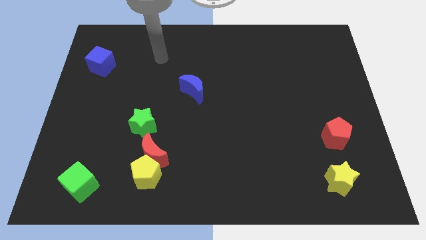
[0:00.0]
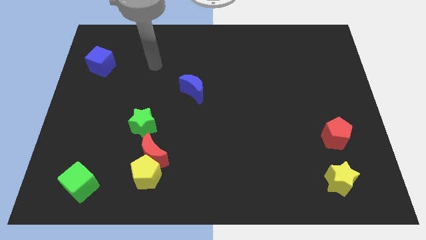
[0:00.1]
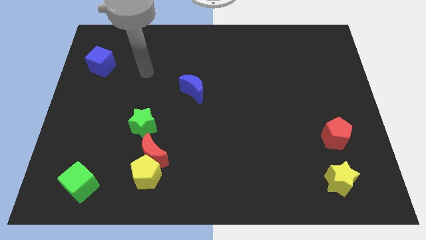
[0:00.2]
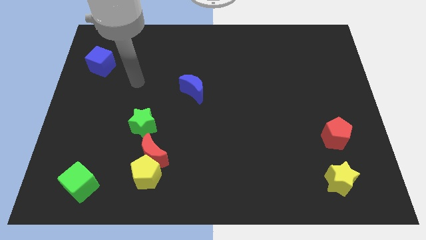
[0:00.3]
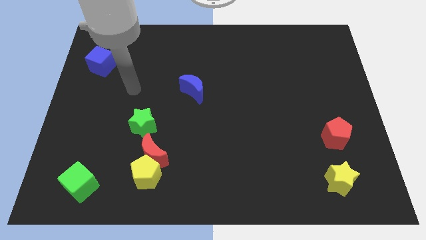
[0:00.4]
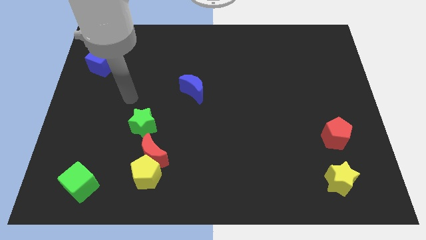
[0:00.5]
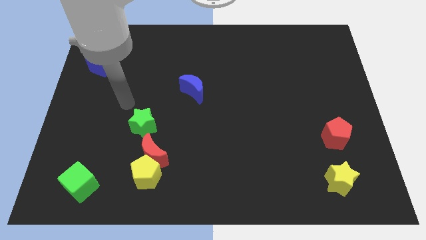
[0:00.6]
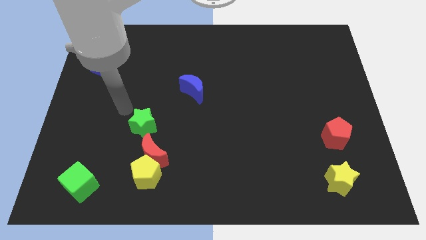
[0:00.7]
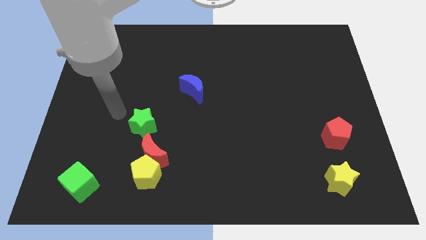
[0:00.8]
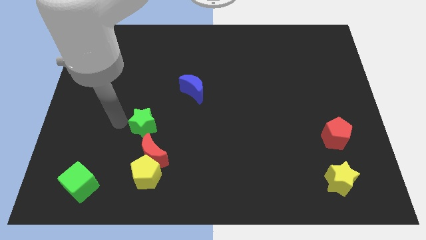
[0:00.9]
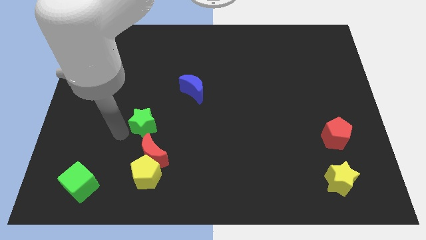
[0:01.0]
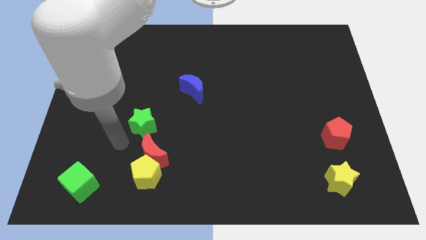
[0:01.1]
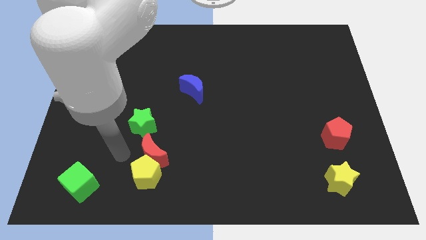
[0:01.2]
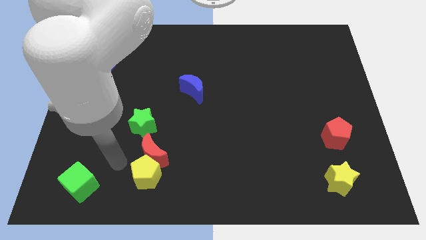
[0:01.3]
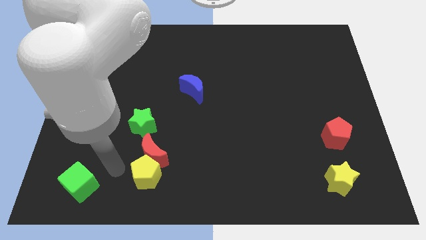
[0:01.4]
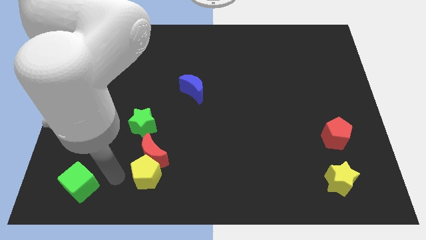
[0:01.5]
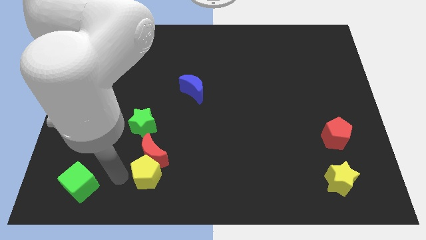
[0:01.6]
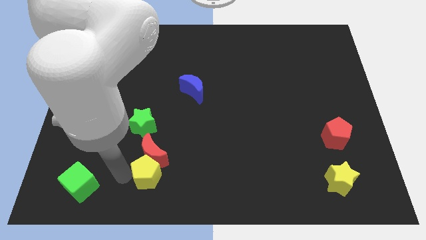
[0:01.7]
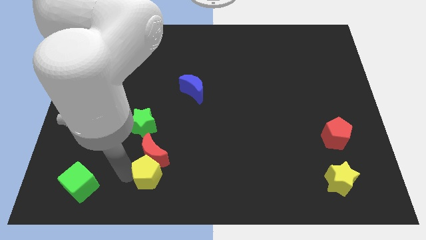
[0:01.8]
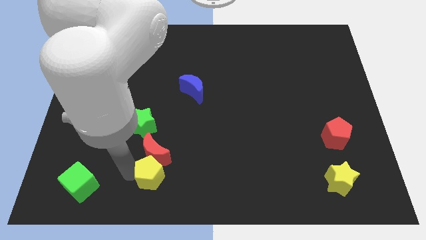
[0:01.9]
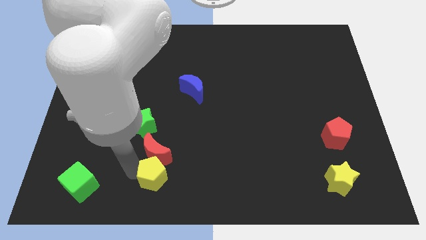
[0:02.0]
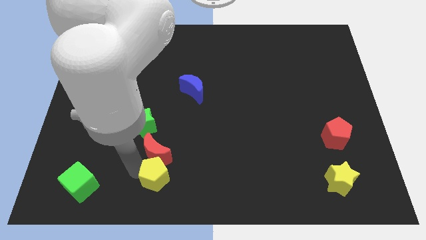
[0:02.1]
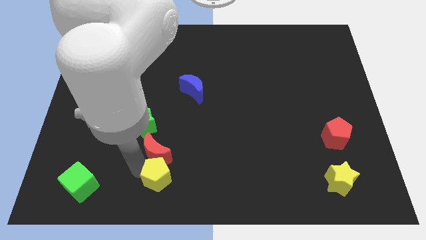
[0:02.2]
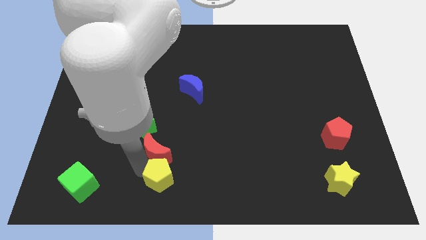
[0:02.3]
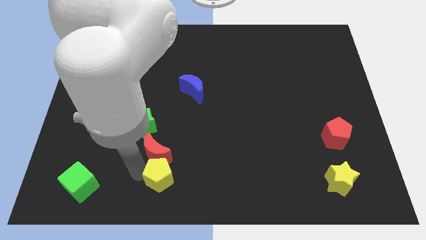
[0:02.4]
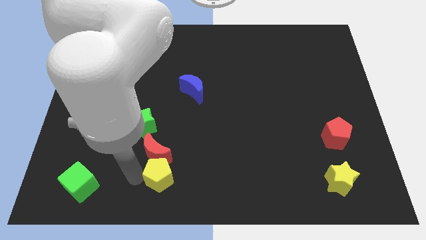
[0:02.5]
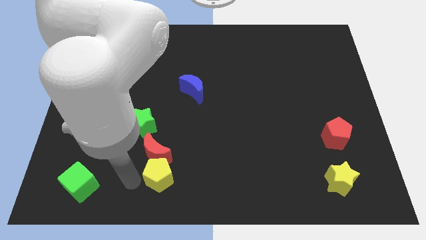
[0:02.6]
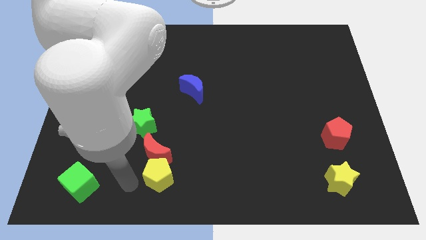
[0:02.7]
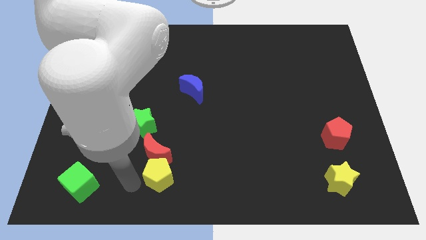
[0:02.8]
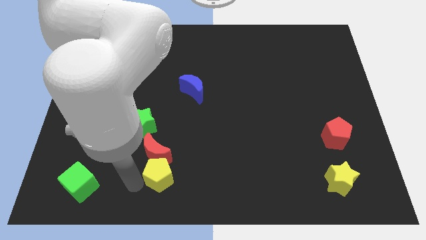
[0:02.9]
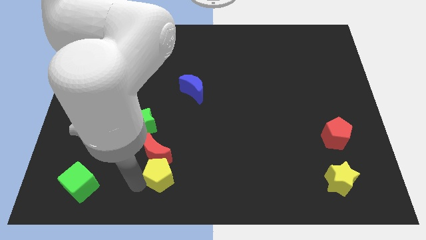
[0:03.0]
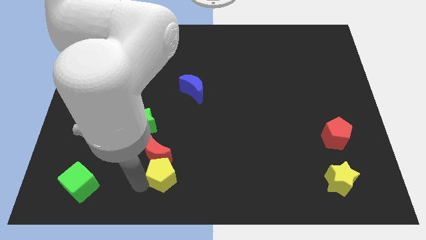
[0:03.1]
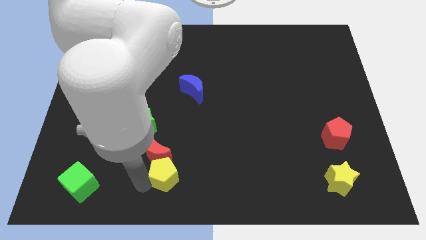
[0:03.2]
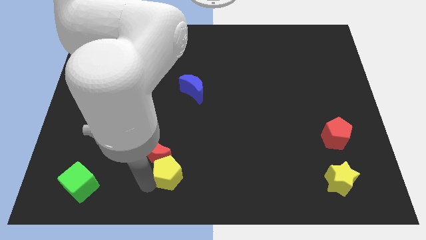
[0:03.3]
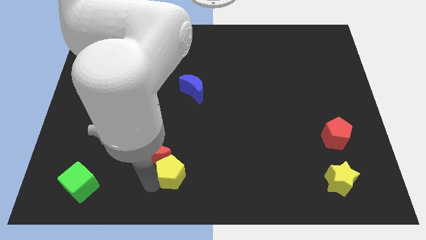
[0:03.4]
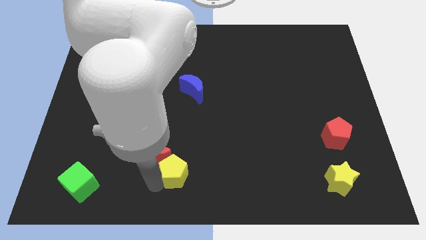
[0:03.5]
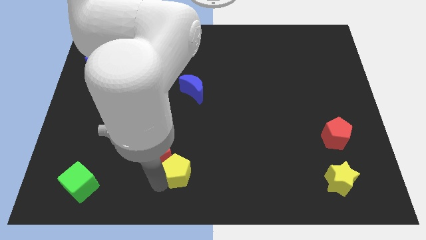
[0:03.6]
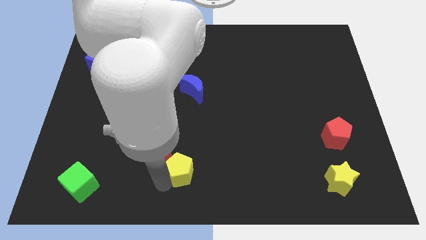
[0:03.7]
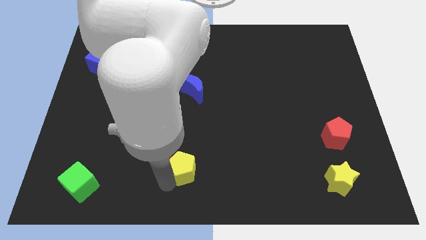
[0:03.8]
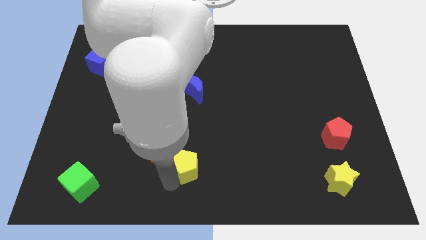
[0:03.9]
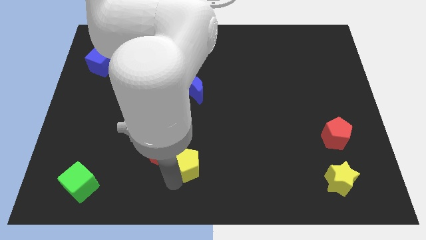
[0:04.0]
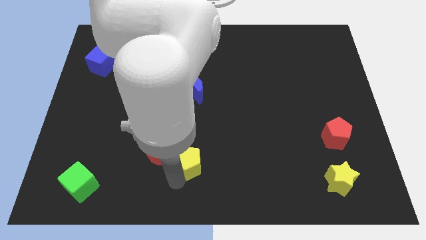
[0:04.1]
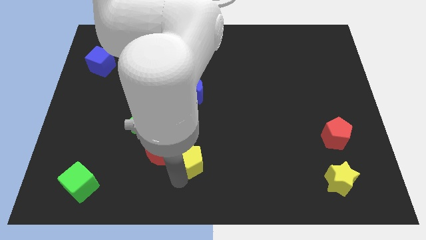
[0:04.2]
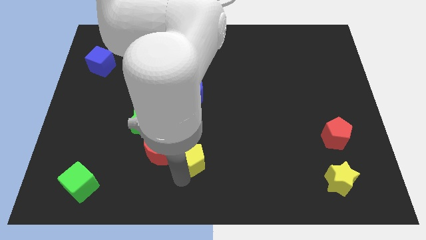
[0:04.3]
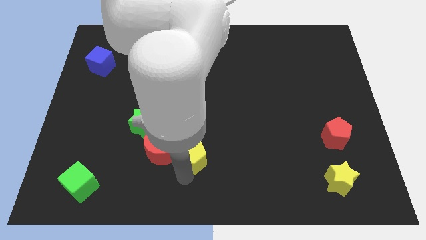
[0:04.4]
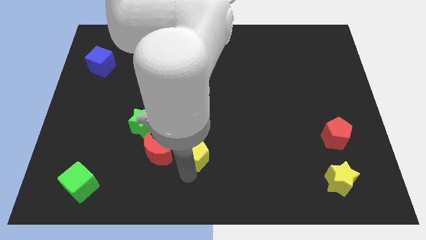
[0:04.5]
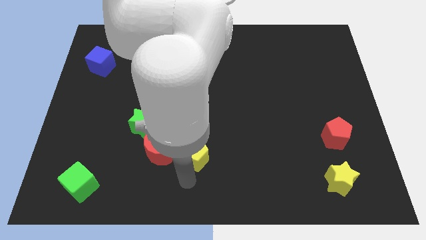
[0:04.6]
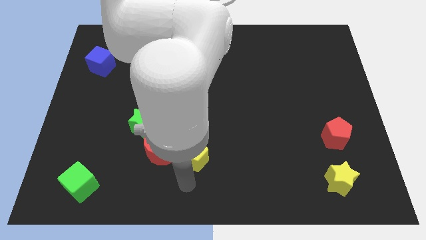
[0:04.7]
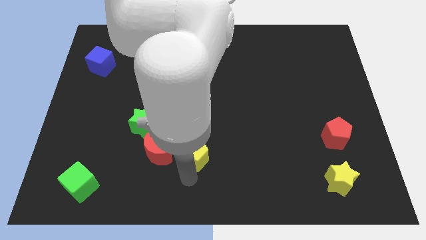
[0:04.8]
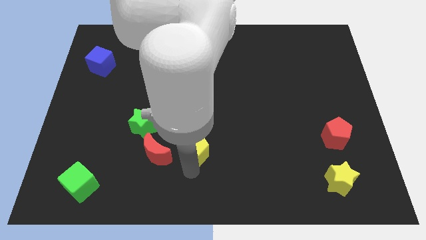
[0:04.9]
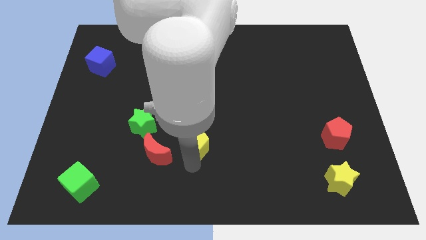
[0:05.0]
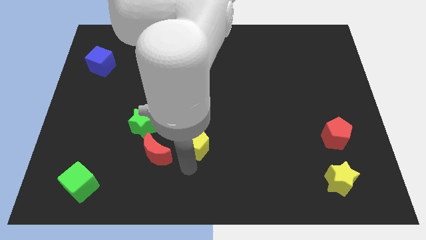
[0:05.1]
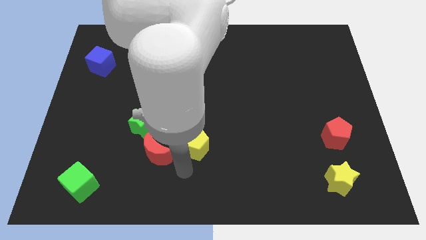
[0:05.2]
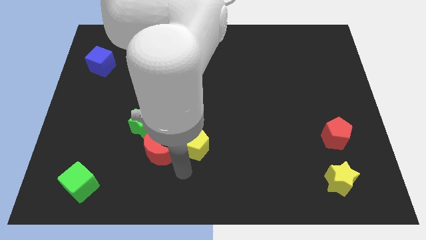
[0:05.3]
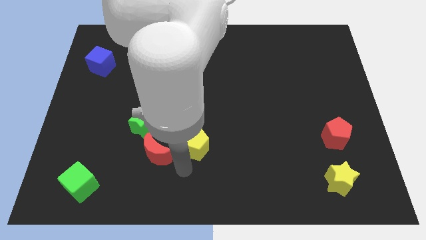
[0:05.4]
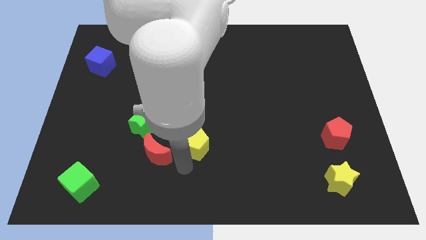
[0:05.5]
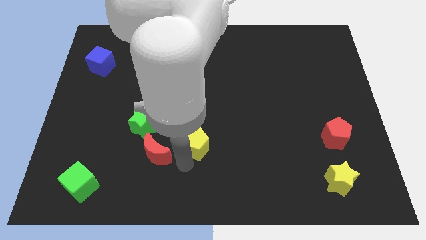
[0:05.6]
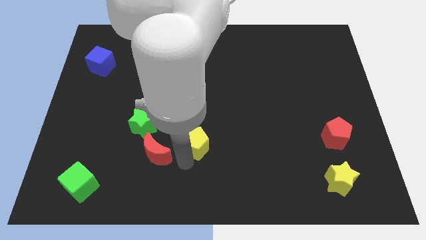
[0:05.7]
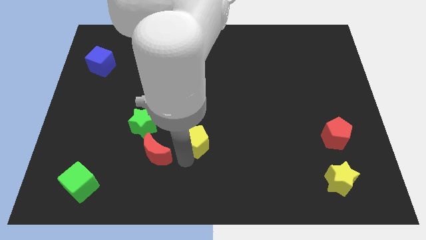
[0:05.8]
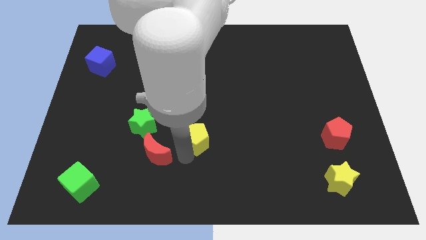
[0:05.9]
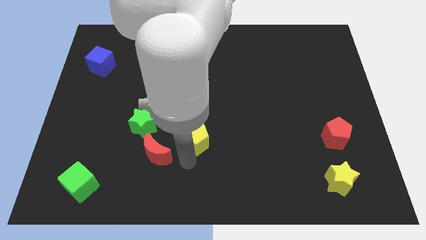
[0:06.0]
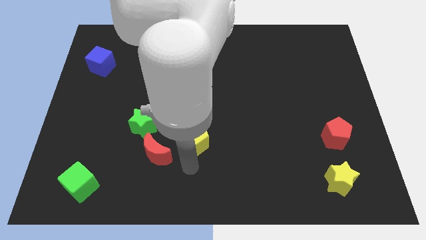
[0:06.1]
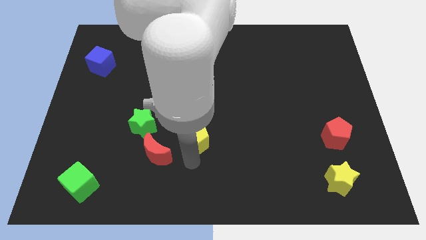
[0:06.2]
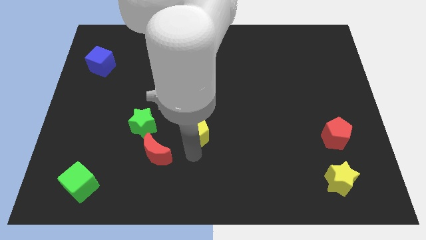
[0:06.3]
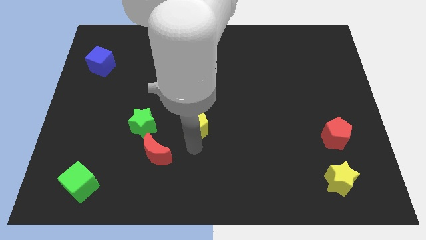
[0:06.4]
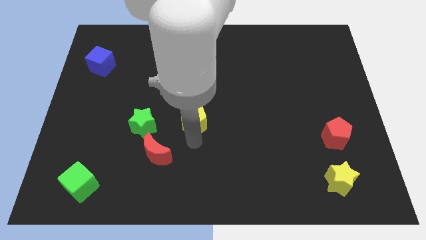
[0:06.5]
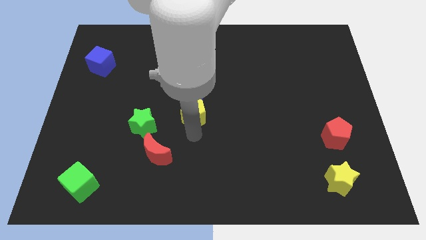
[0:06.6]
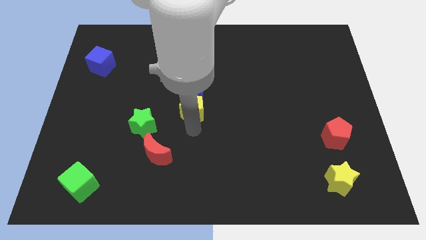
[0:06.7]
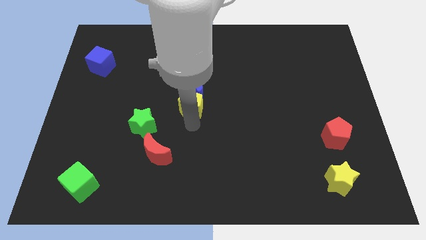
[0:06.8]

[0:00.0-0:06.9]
push the yellow pentagon next to the blue moon

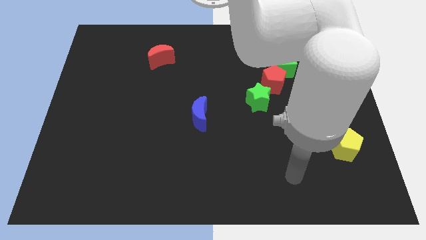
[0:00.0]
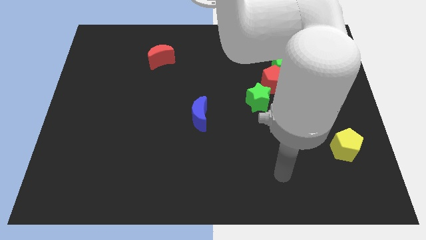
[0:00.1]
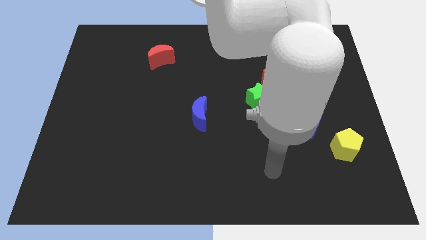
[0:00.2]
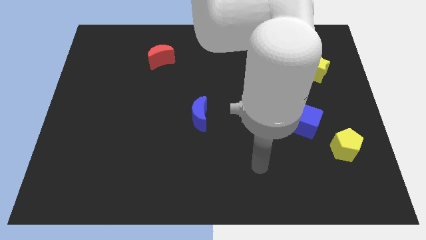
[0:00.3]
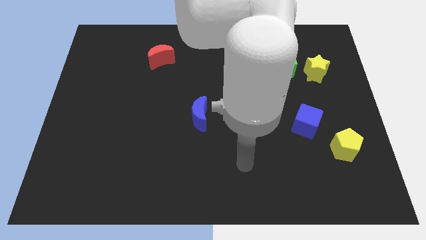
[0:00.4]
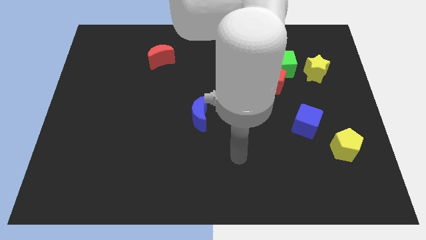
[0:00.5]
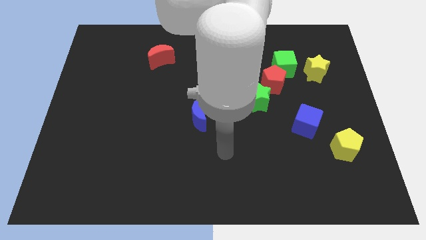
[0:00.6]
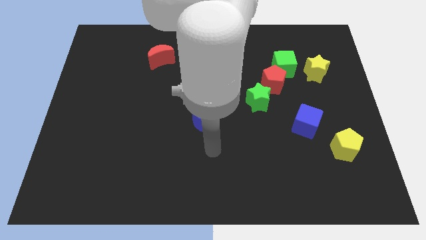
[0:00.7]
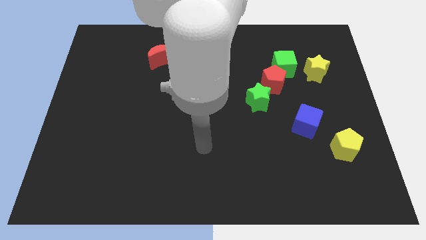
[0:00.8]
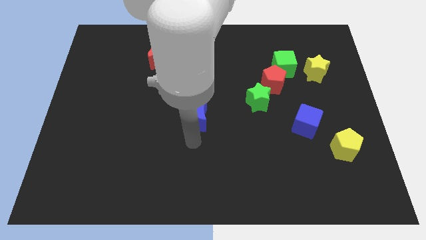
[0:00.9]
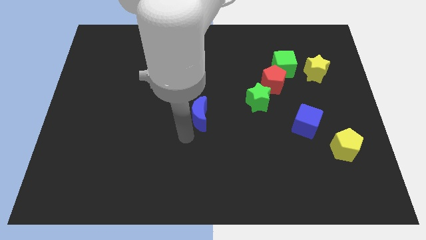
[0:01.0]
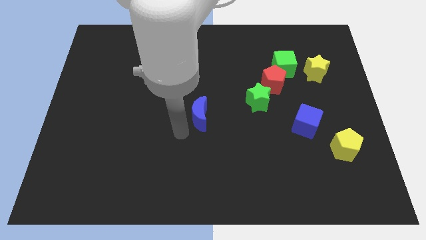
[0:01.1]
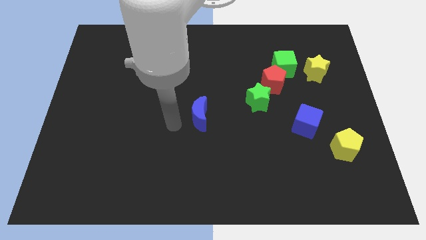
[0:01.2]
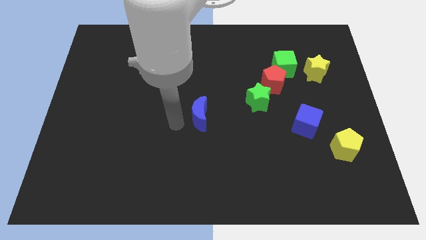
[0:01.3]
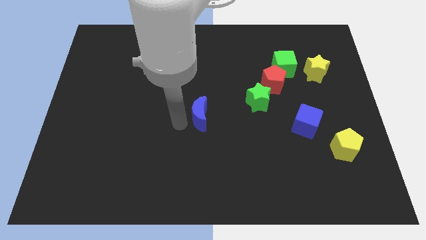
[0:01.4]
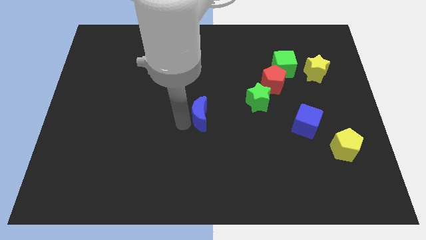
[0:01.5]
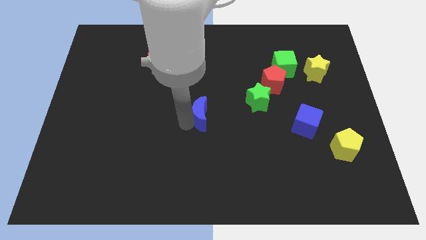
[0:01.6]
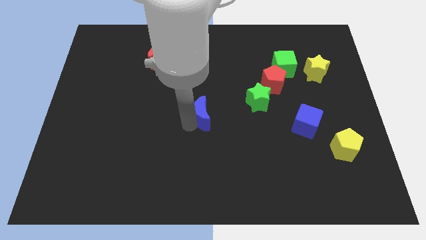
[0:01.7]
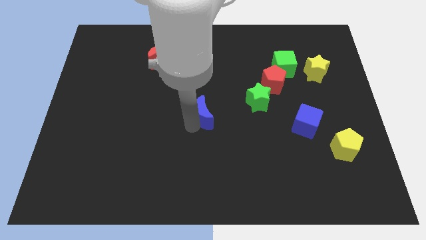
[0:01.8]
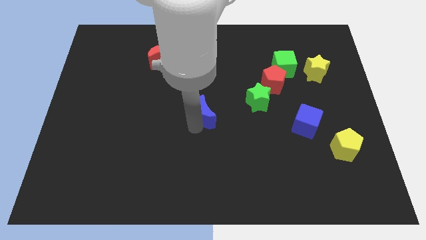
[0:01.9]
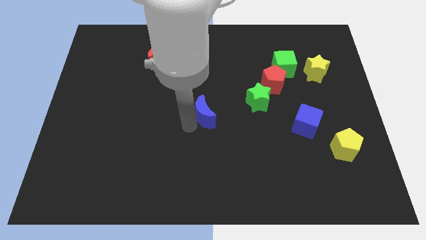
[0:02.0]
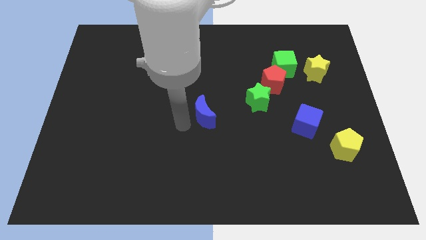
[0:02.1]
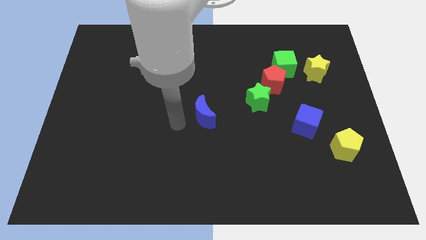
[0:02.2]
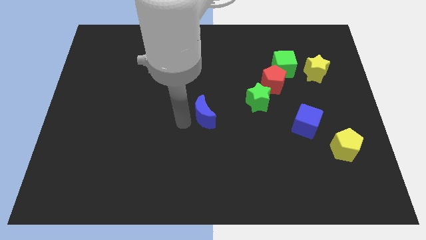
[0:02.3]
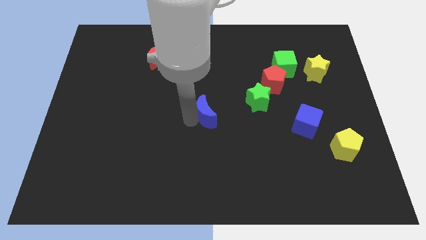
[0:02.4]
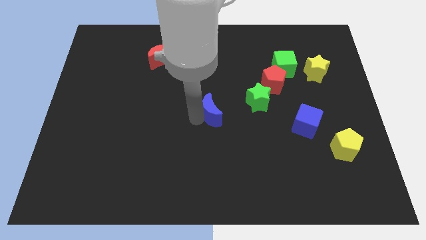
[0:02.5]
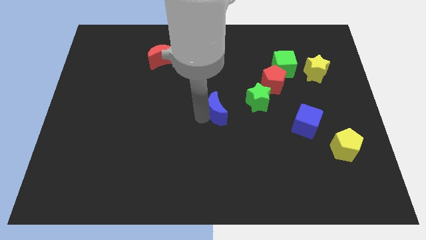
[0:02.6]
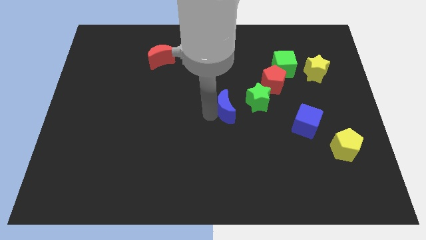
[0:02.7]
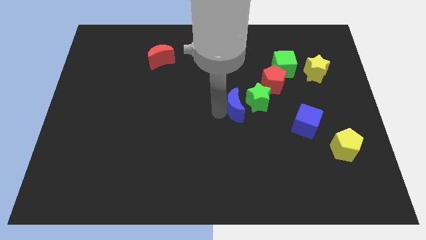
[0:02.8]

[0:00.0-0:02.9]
move the blue moon next to the green star
